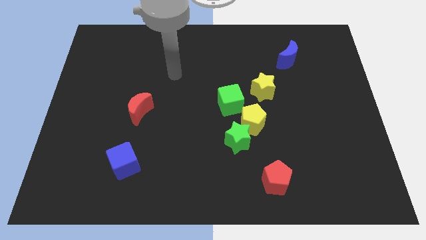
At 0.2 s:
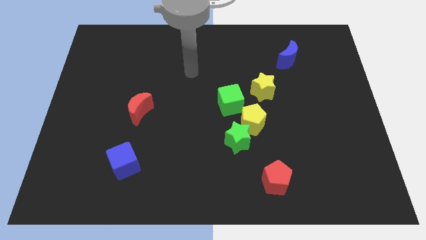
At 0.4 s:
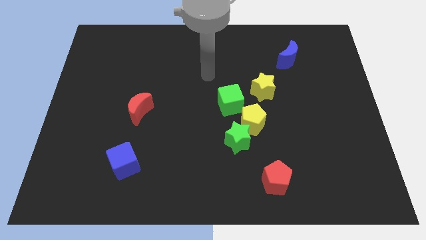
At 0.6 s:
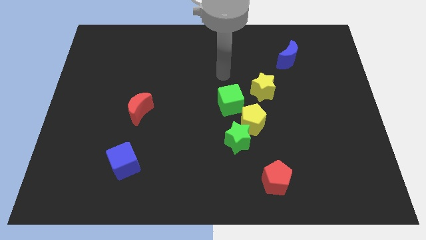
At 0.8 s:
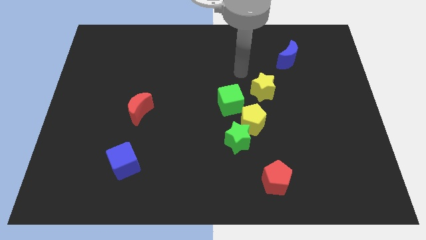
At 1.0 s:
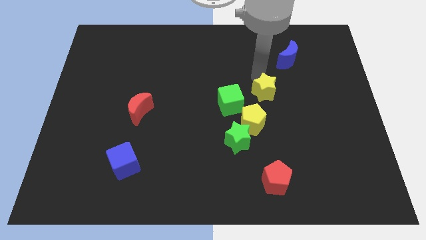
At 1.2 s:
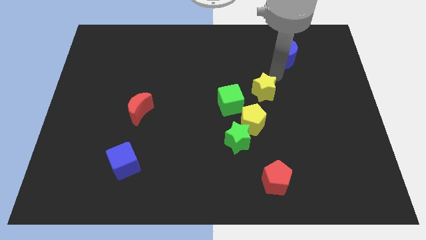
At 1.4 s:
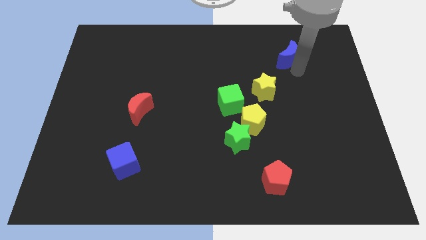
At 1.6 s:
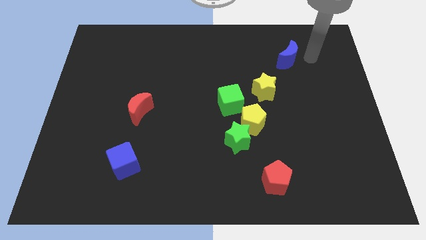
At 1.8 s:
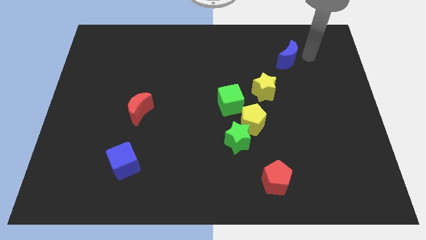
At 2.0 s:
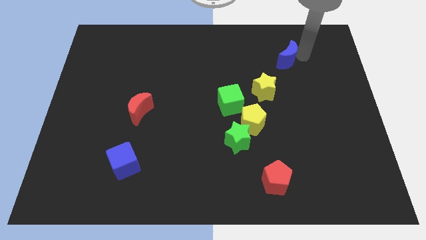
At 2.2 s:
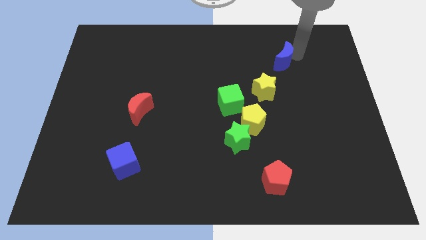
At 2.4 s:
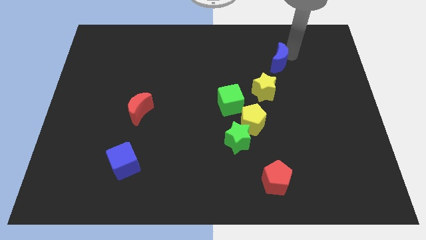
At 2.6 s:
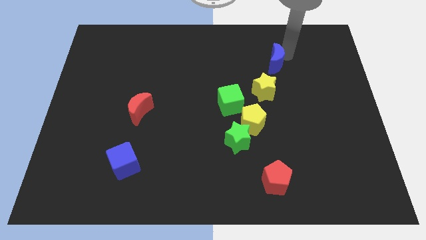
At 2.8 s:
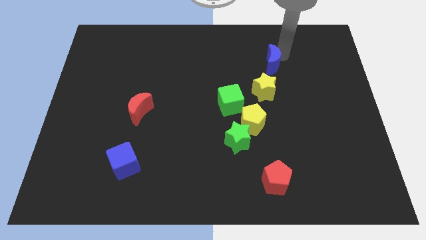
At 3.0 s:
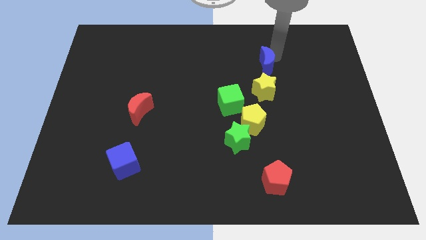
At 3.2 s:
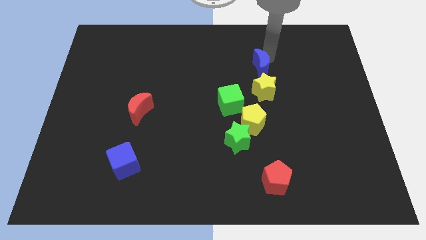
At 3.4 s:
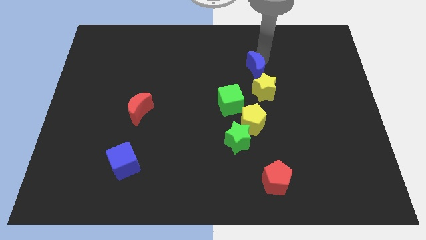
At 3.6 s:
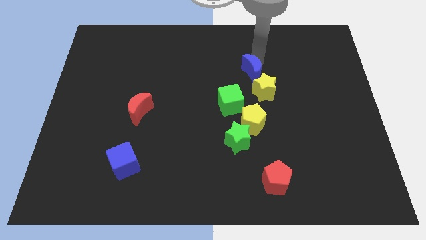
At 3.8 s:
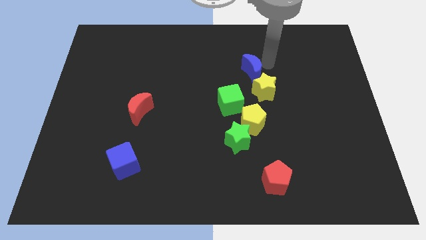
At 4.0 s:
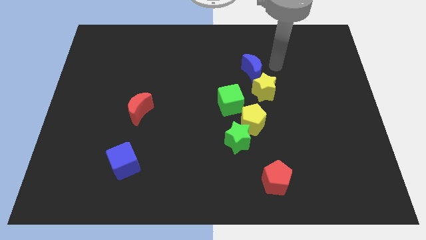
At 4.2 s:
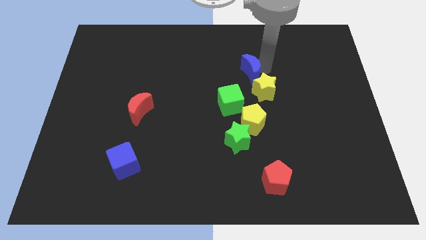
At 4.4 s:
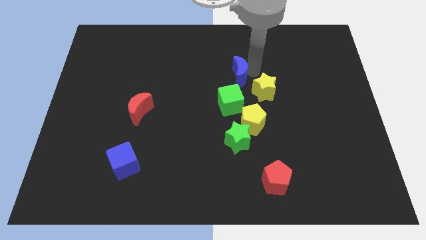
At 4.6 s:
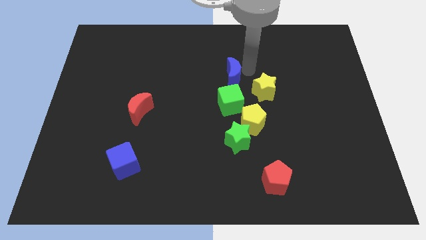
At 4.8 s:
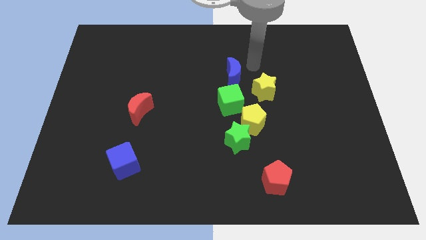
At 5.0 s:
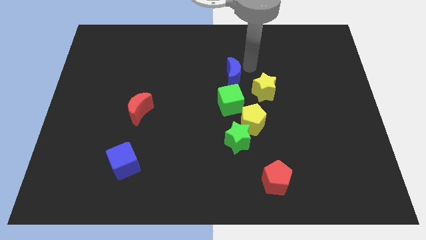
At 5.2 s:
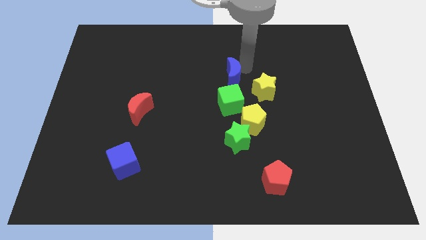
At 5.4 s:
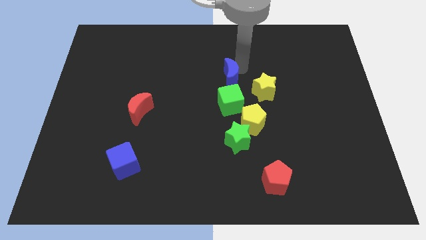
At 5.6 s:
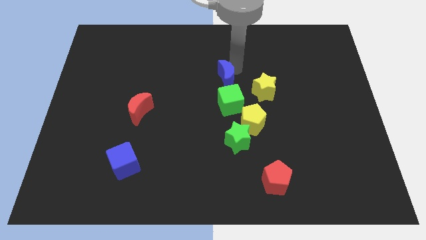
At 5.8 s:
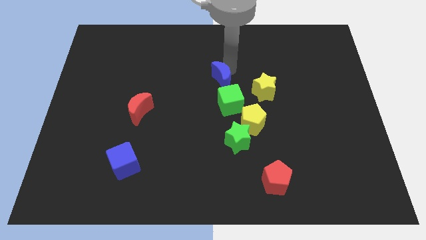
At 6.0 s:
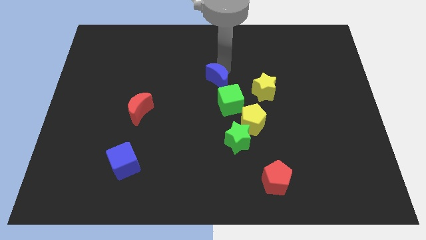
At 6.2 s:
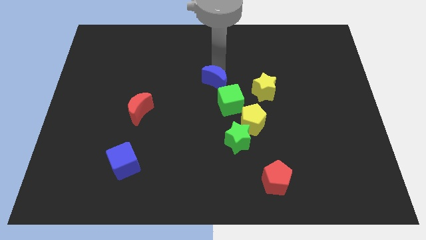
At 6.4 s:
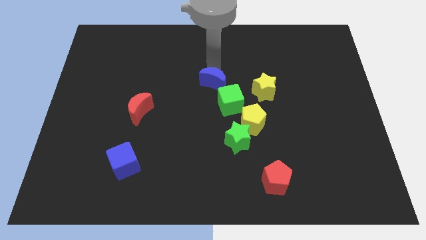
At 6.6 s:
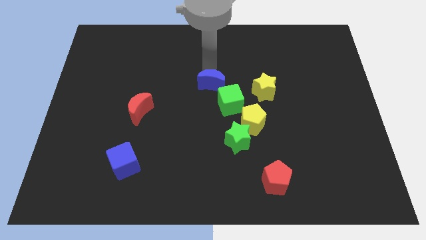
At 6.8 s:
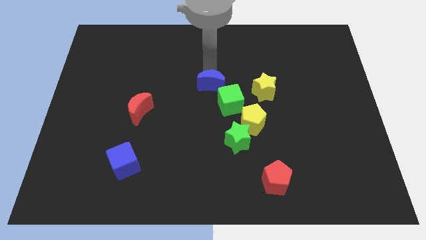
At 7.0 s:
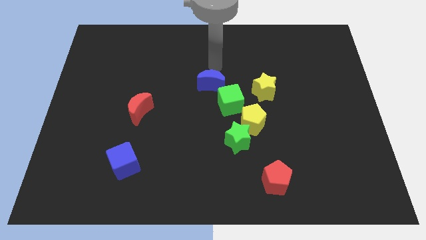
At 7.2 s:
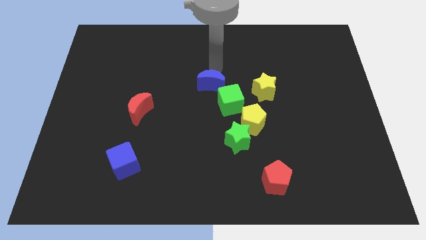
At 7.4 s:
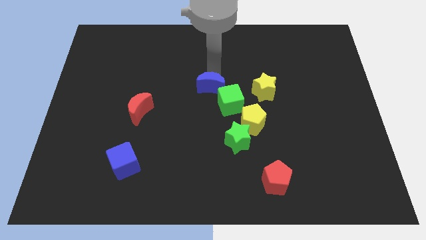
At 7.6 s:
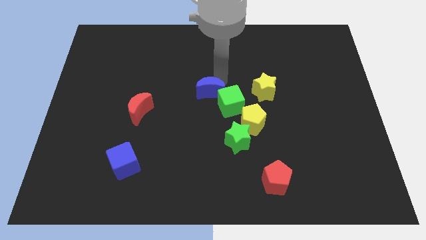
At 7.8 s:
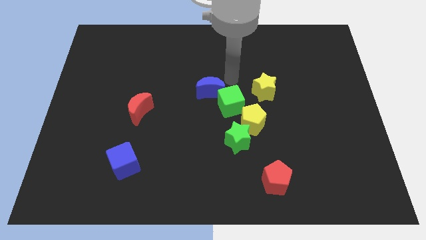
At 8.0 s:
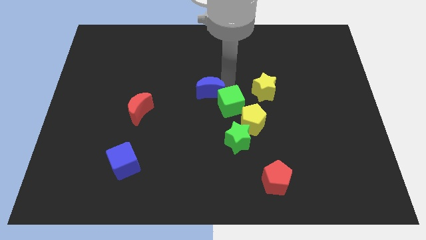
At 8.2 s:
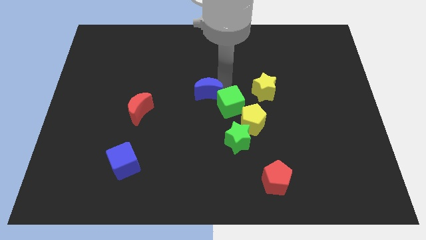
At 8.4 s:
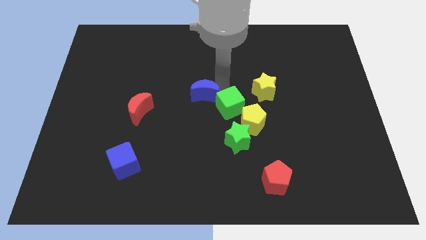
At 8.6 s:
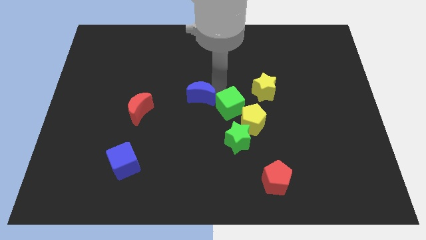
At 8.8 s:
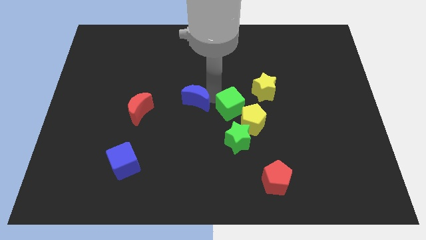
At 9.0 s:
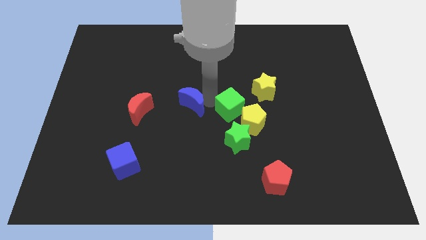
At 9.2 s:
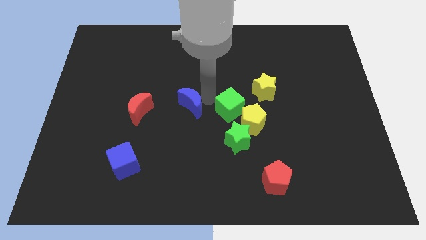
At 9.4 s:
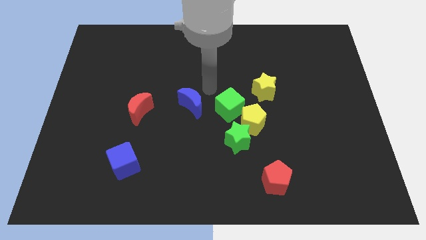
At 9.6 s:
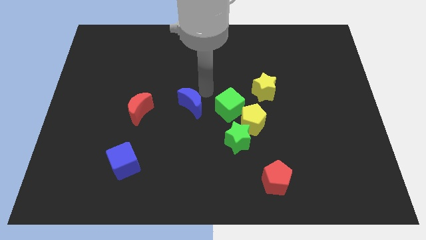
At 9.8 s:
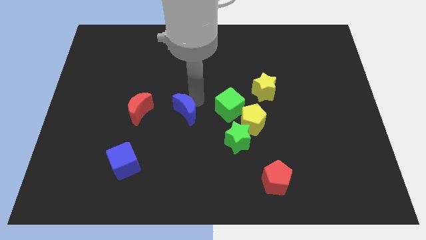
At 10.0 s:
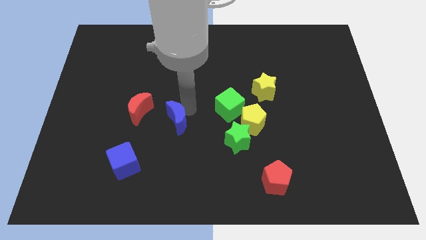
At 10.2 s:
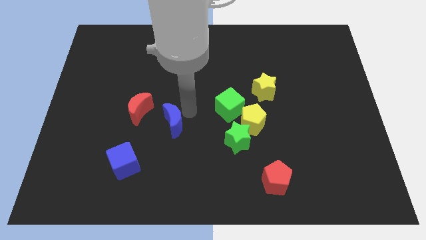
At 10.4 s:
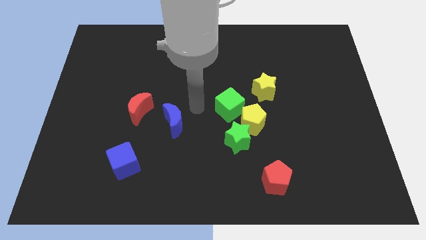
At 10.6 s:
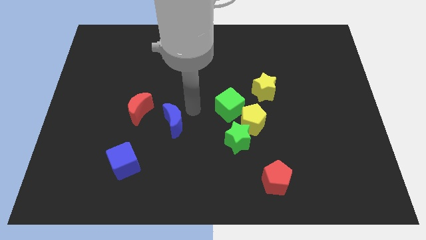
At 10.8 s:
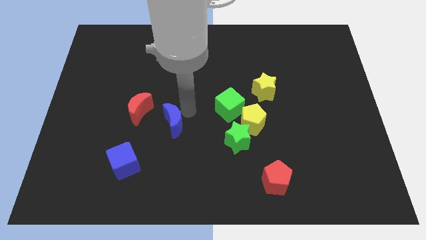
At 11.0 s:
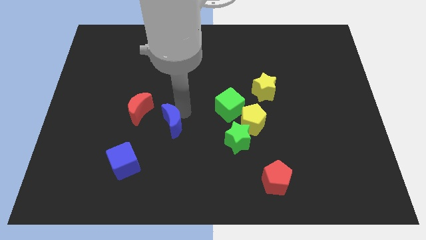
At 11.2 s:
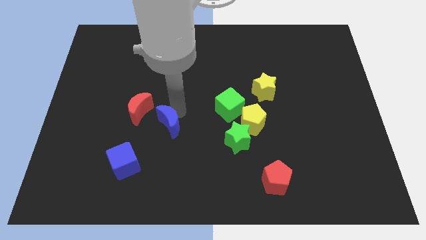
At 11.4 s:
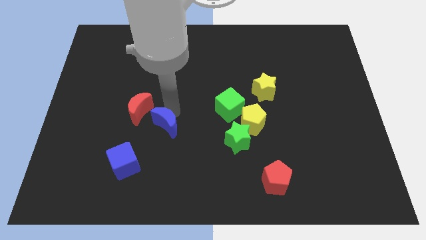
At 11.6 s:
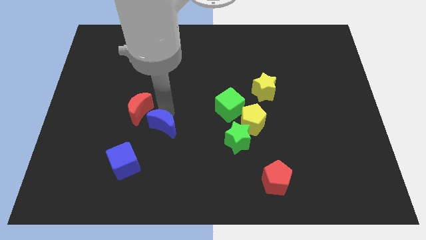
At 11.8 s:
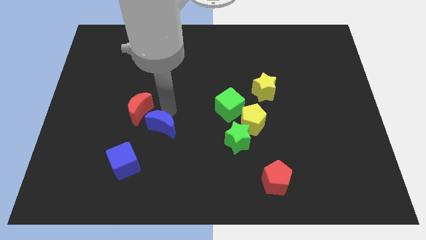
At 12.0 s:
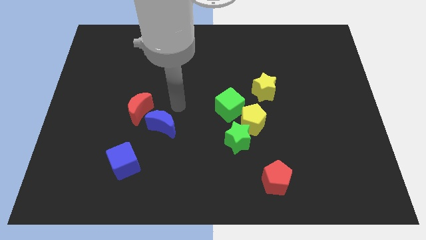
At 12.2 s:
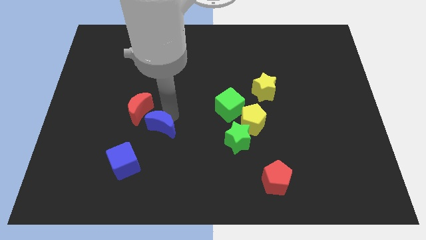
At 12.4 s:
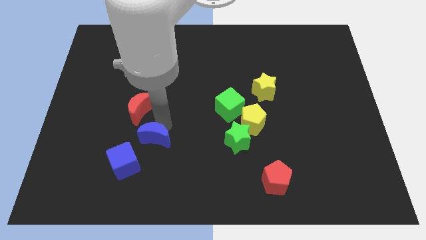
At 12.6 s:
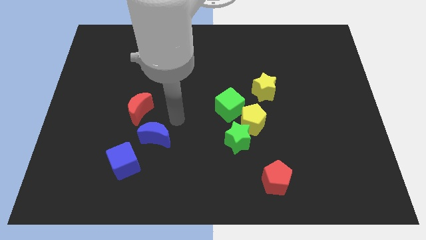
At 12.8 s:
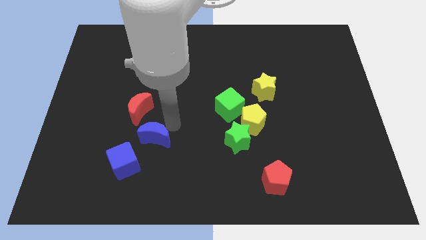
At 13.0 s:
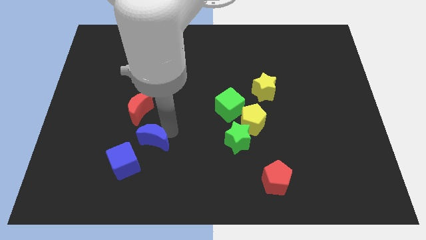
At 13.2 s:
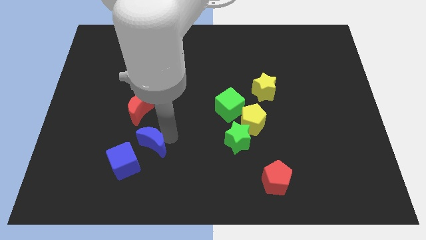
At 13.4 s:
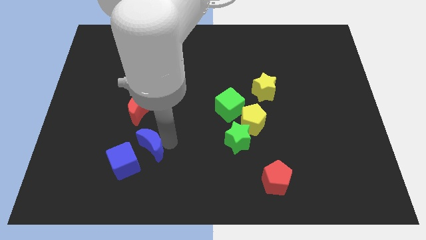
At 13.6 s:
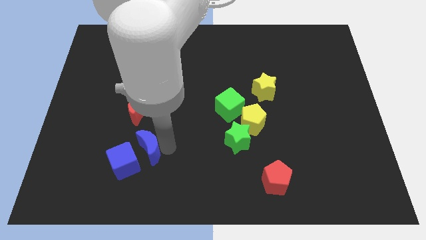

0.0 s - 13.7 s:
put the blue moon to the blue cube

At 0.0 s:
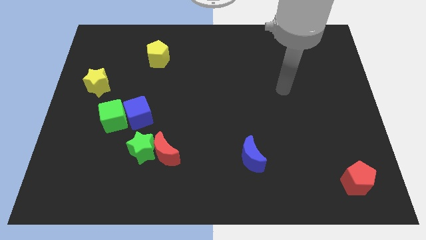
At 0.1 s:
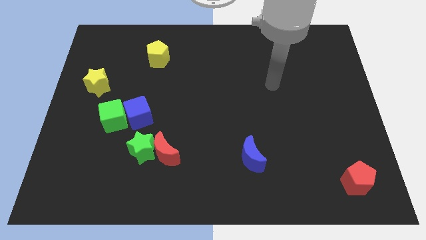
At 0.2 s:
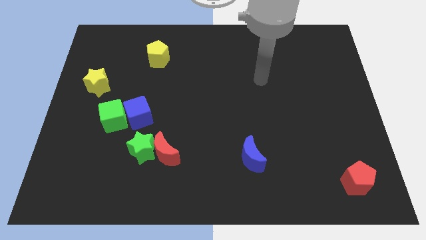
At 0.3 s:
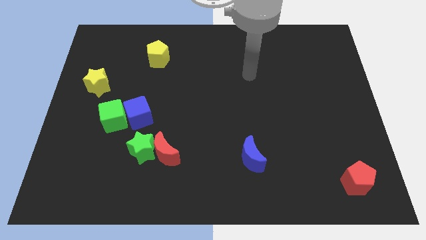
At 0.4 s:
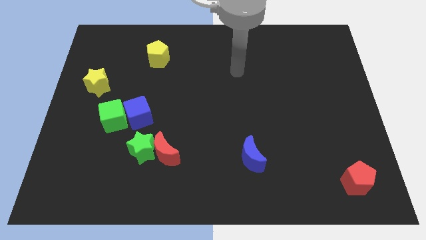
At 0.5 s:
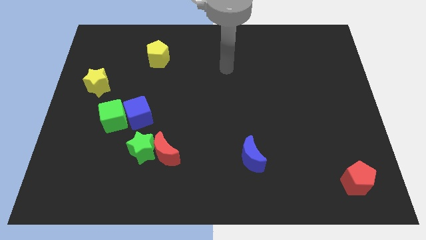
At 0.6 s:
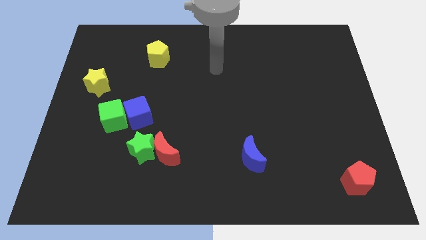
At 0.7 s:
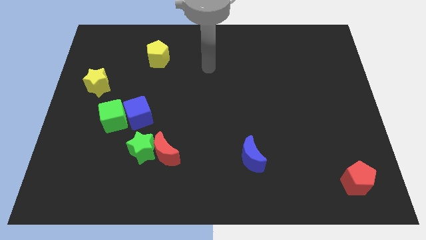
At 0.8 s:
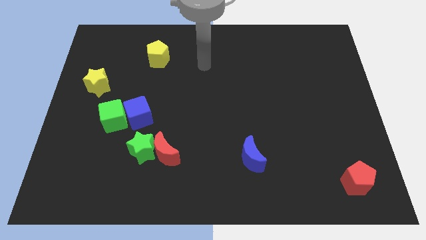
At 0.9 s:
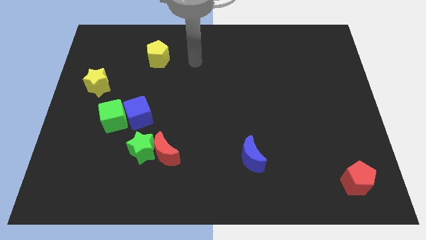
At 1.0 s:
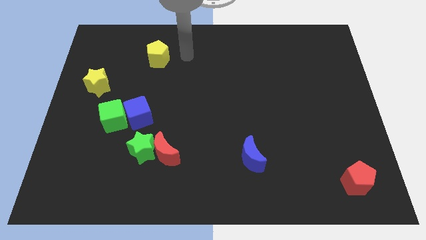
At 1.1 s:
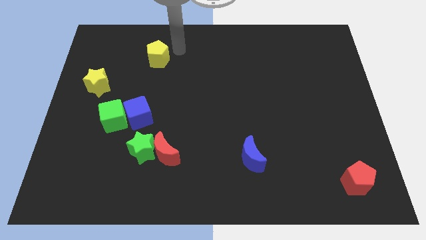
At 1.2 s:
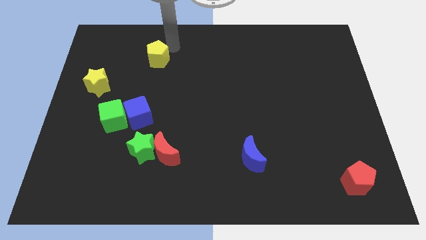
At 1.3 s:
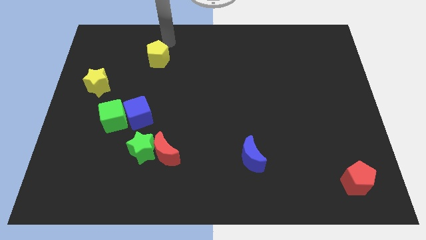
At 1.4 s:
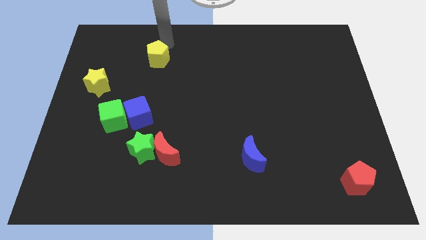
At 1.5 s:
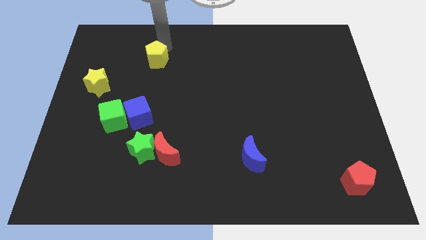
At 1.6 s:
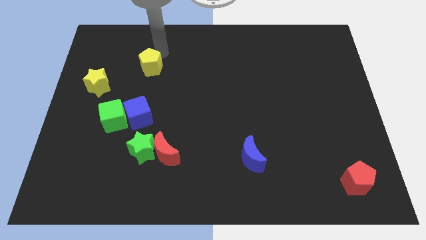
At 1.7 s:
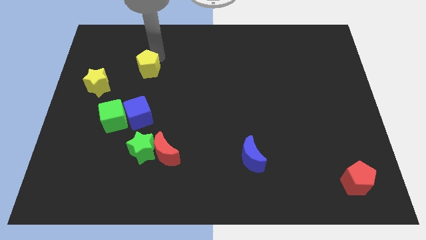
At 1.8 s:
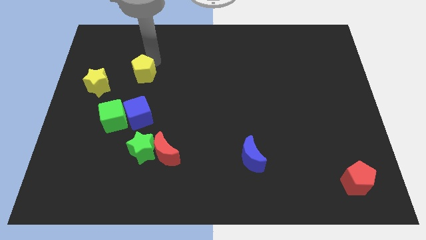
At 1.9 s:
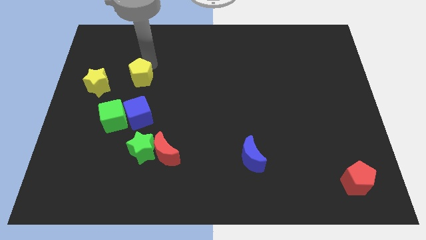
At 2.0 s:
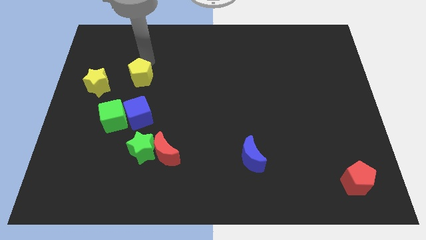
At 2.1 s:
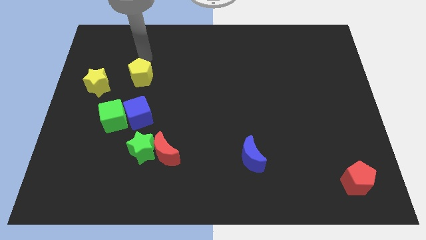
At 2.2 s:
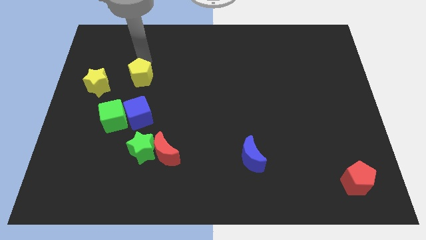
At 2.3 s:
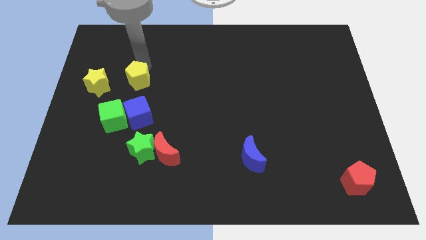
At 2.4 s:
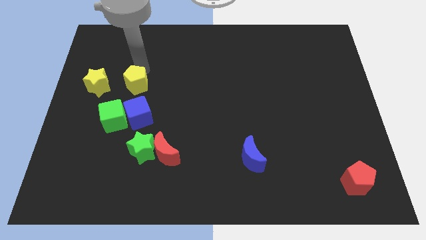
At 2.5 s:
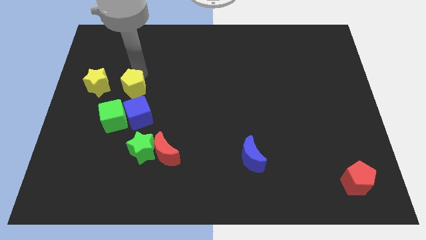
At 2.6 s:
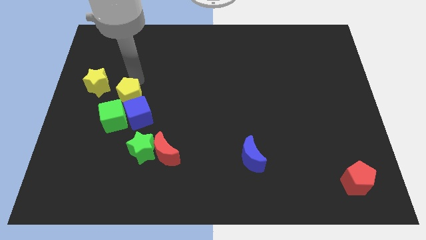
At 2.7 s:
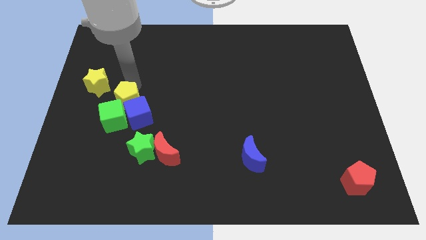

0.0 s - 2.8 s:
push the yellow pentagon towards the blue cube
